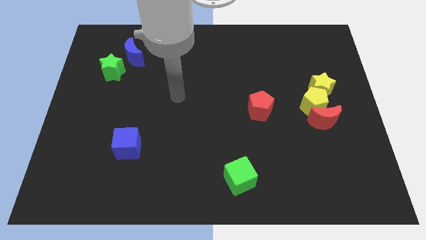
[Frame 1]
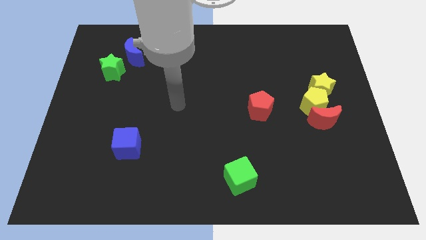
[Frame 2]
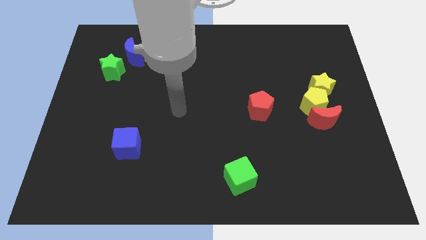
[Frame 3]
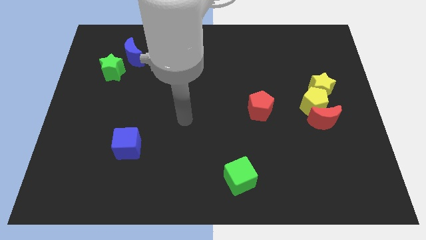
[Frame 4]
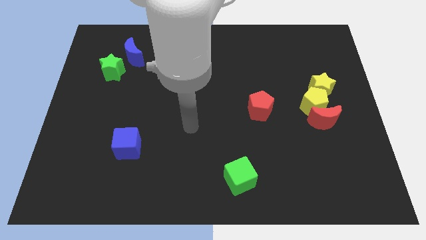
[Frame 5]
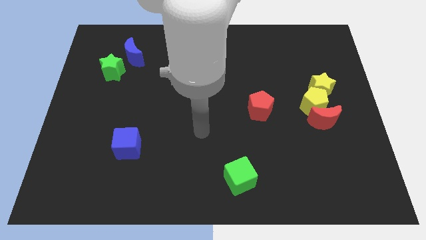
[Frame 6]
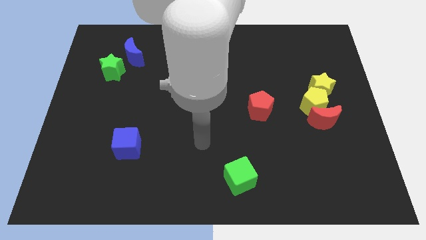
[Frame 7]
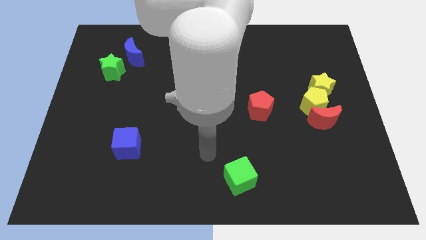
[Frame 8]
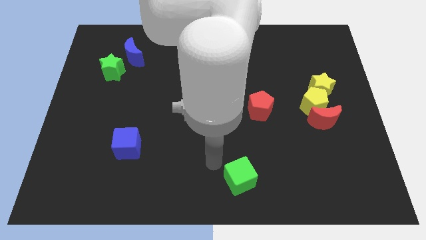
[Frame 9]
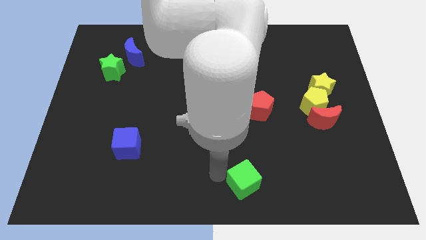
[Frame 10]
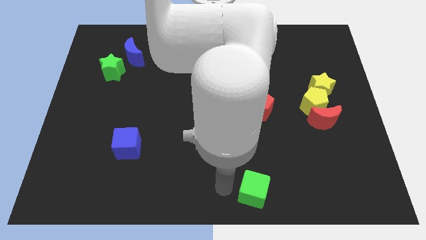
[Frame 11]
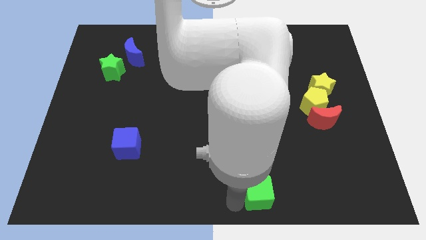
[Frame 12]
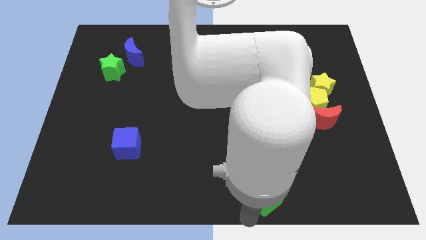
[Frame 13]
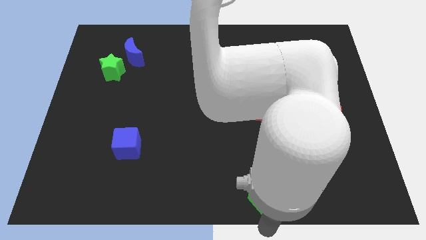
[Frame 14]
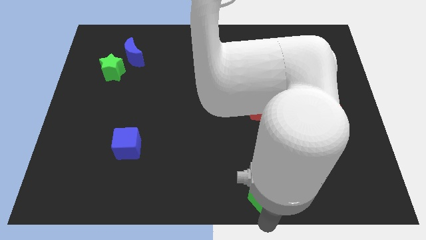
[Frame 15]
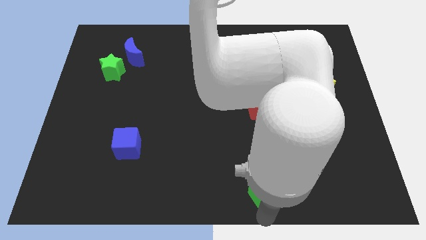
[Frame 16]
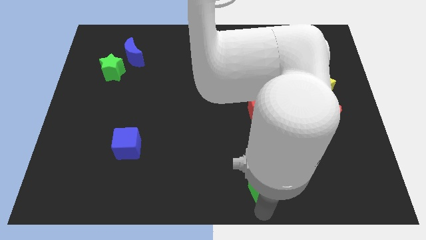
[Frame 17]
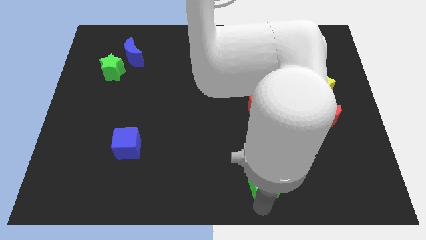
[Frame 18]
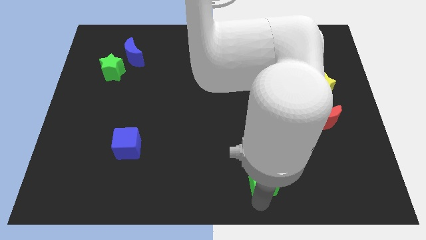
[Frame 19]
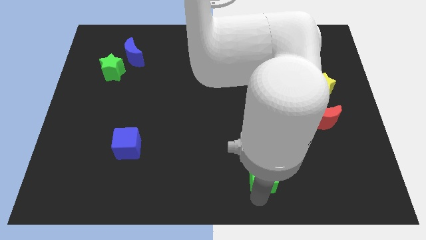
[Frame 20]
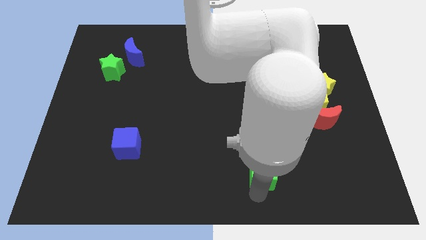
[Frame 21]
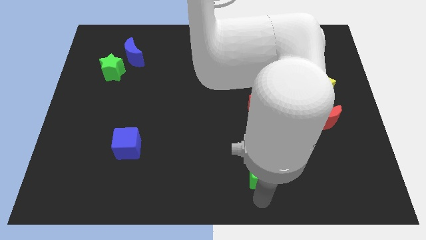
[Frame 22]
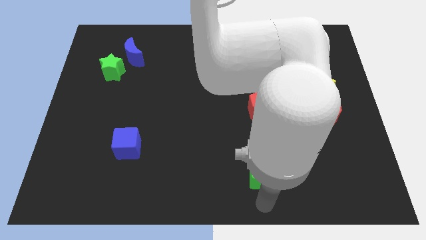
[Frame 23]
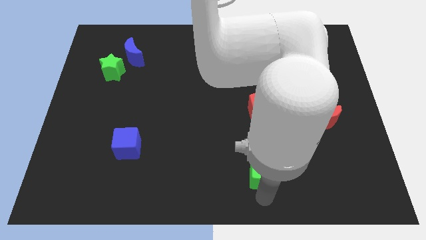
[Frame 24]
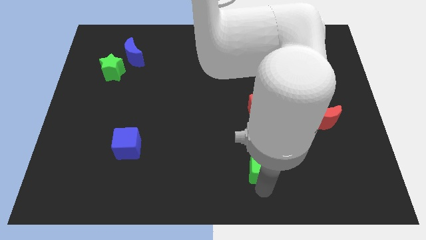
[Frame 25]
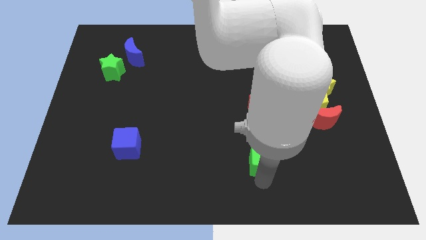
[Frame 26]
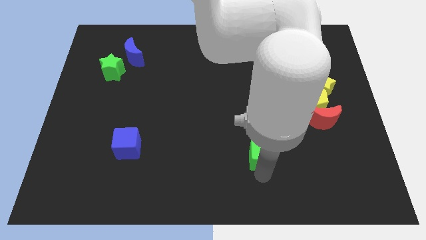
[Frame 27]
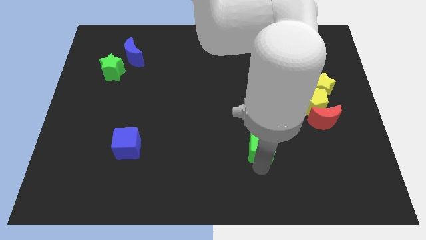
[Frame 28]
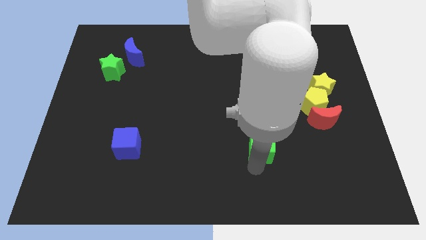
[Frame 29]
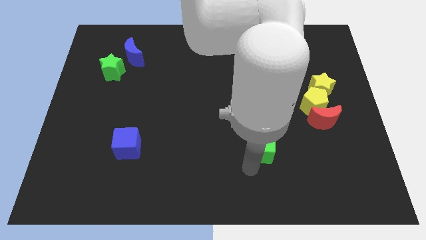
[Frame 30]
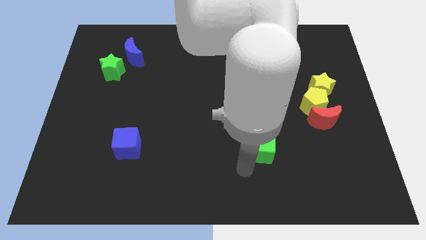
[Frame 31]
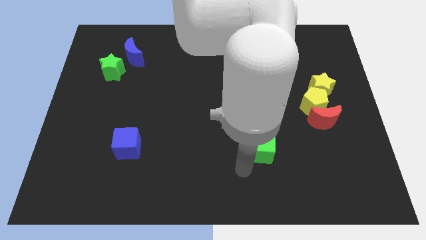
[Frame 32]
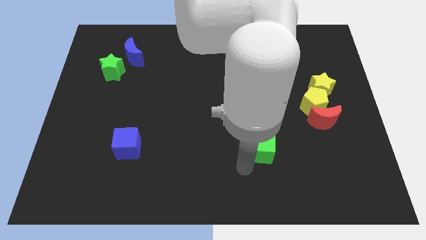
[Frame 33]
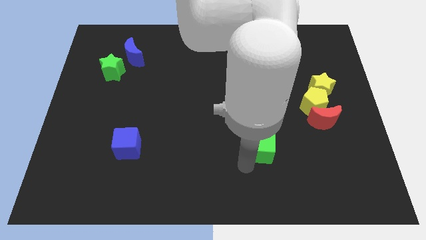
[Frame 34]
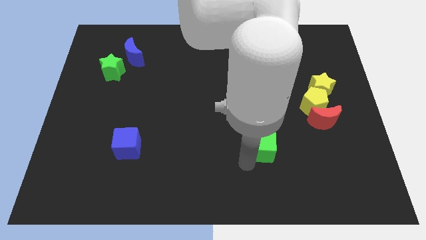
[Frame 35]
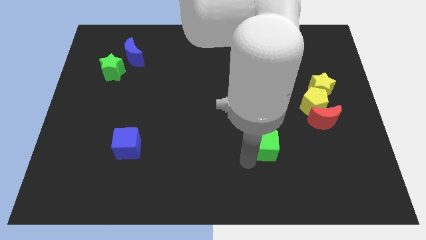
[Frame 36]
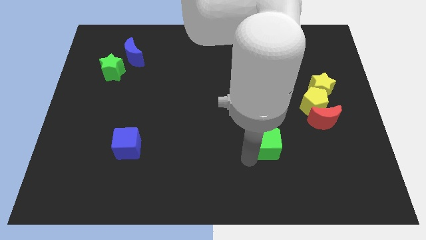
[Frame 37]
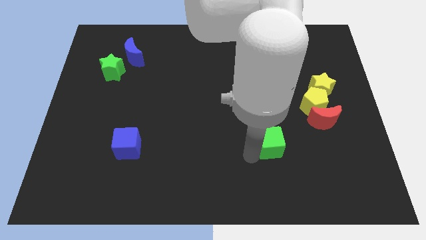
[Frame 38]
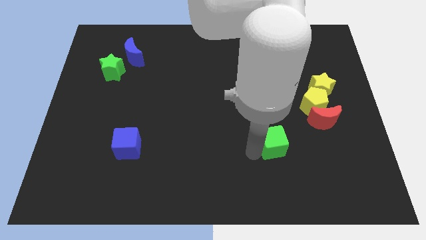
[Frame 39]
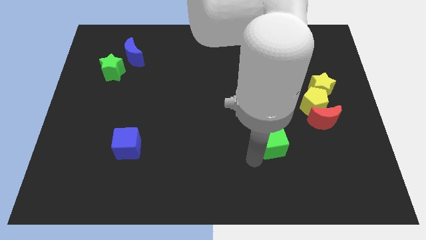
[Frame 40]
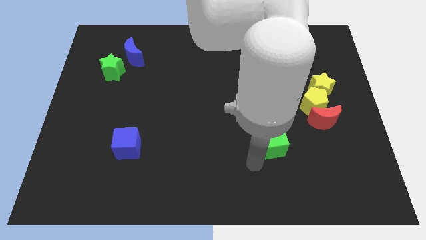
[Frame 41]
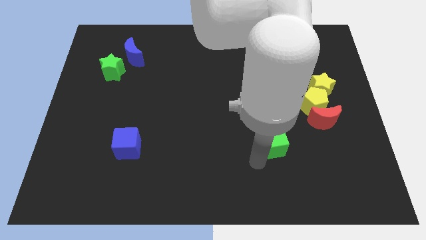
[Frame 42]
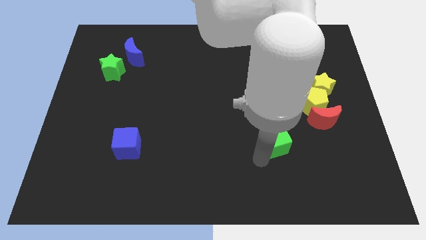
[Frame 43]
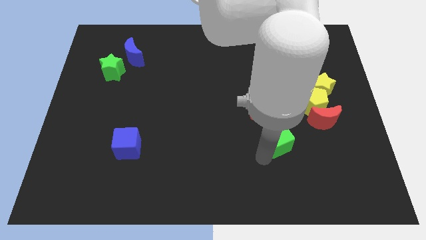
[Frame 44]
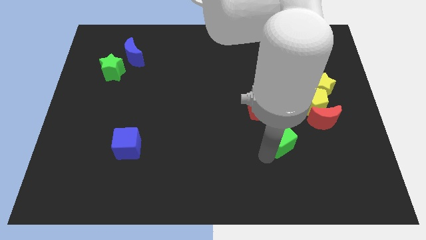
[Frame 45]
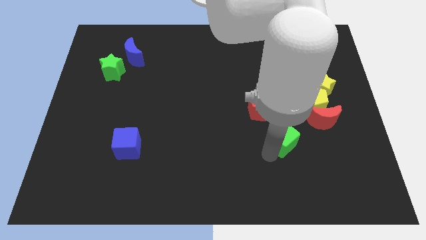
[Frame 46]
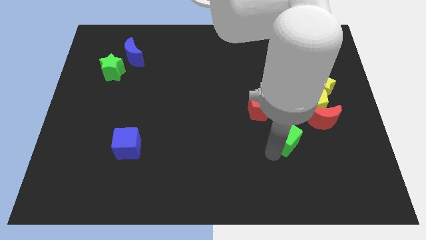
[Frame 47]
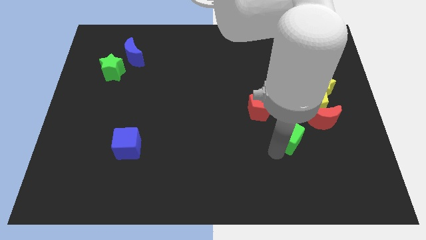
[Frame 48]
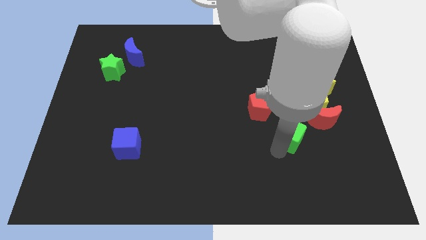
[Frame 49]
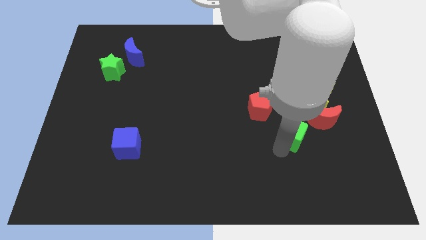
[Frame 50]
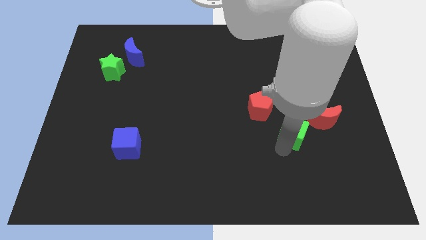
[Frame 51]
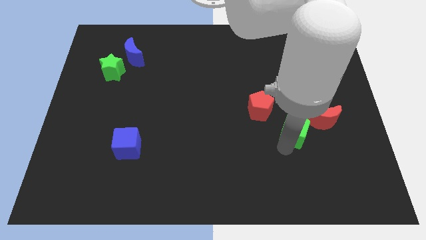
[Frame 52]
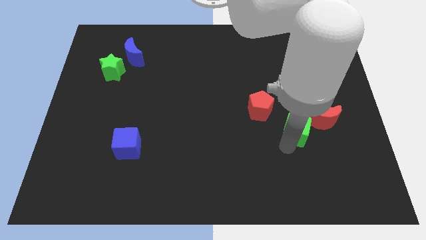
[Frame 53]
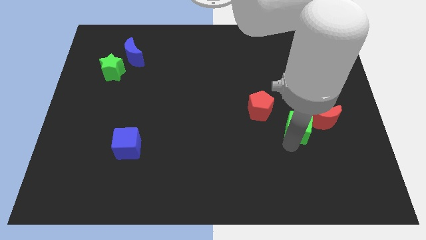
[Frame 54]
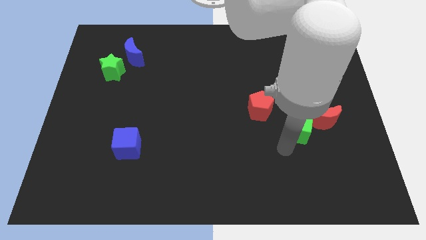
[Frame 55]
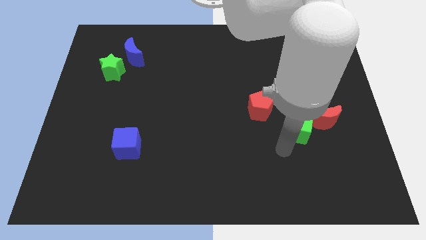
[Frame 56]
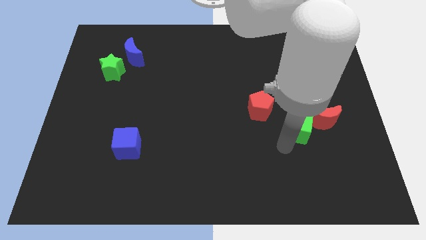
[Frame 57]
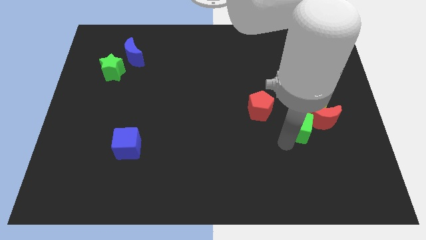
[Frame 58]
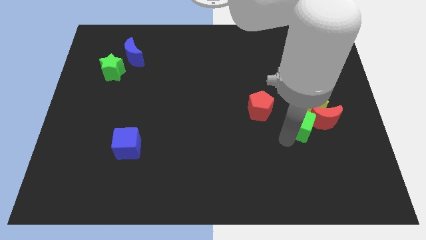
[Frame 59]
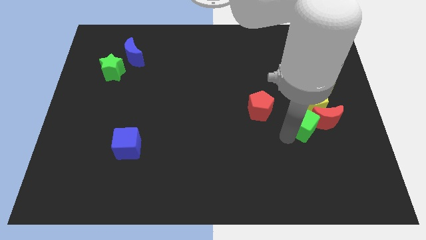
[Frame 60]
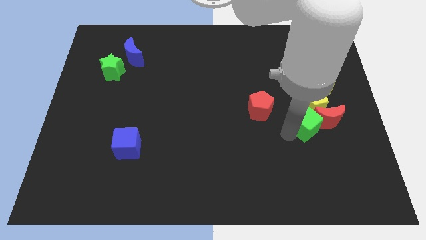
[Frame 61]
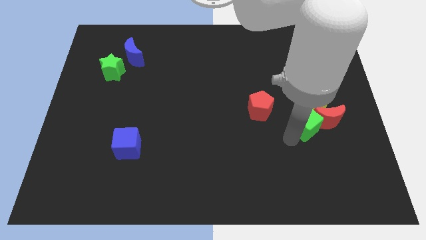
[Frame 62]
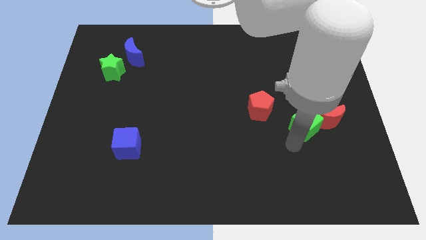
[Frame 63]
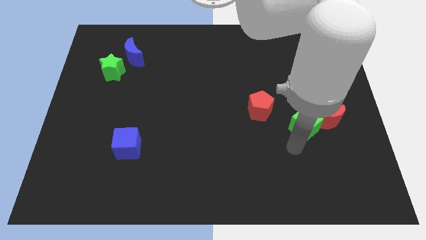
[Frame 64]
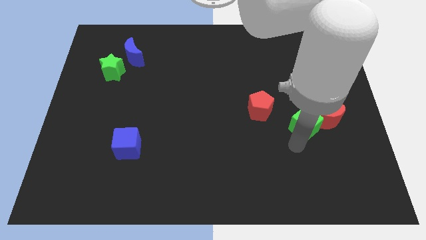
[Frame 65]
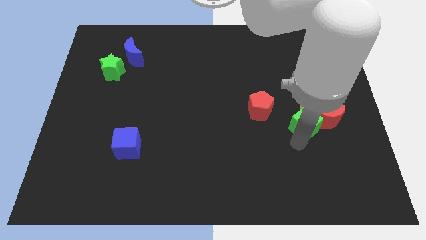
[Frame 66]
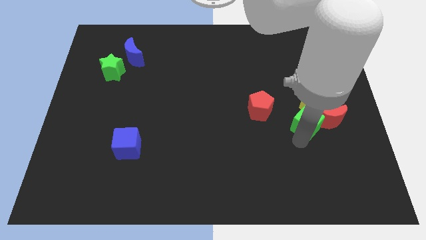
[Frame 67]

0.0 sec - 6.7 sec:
move the green cube close to the yellow pentagon

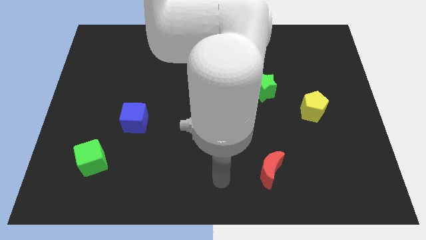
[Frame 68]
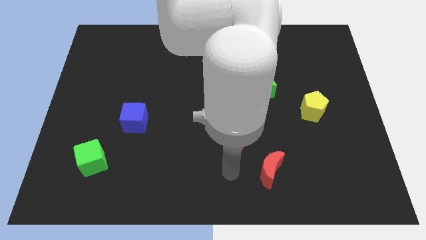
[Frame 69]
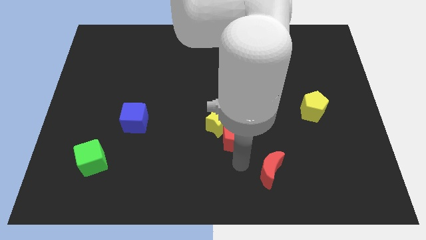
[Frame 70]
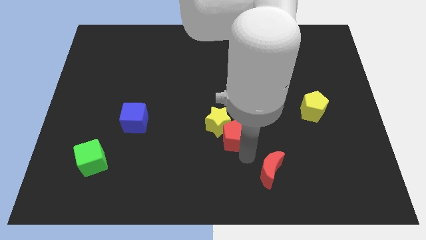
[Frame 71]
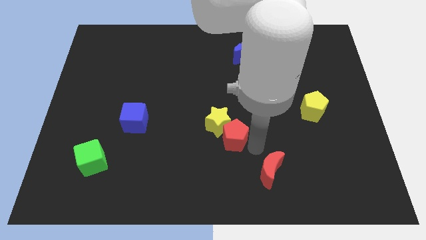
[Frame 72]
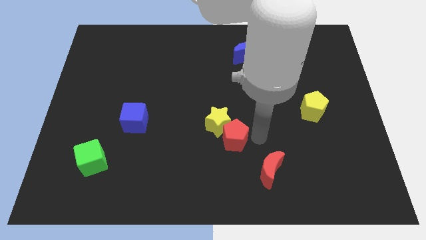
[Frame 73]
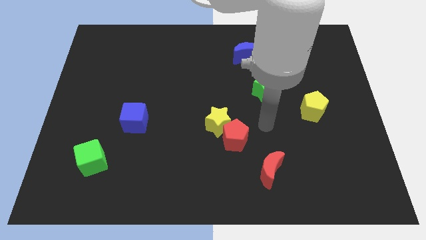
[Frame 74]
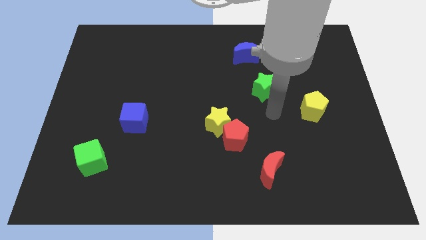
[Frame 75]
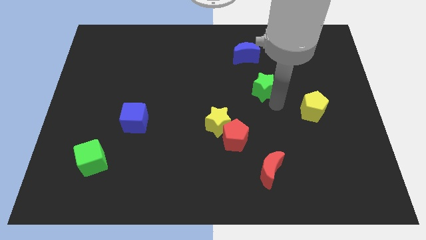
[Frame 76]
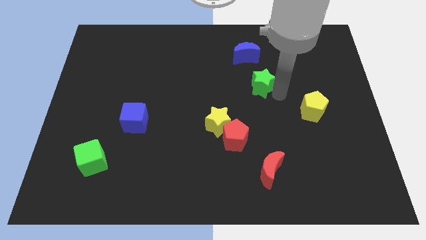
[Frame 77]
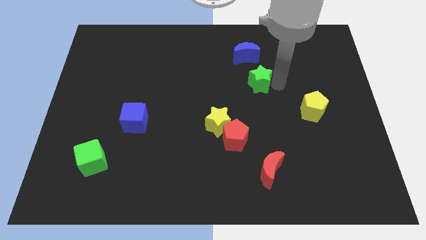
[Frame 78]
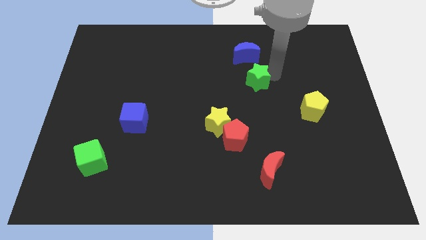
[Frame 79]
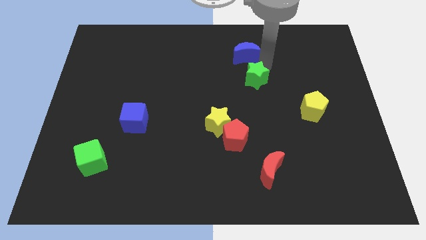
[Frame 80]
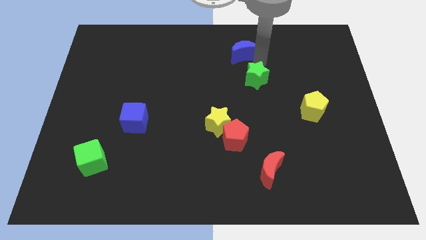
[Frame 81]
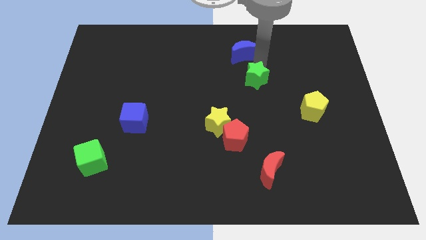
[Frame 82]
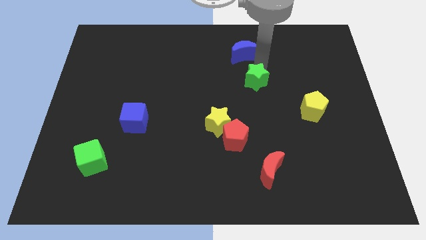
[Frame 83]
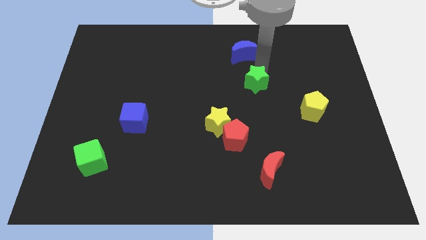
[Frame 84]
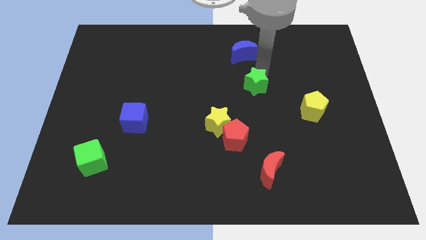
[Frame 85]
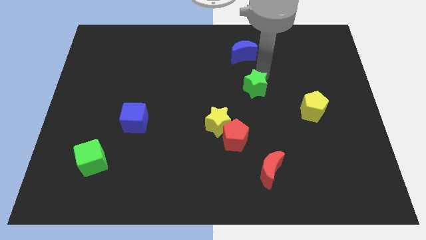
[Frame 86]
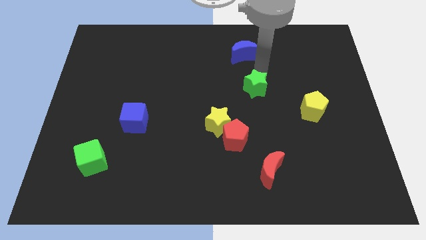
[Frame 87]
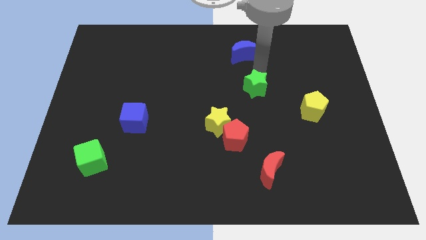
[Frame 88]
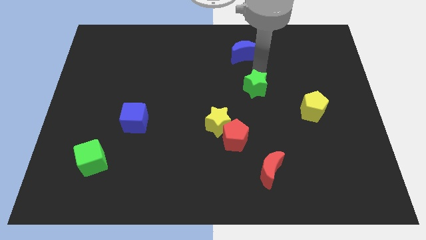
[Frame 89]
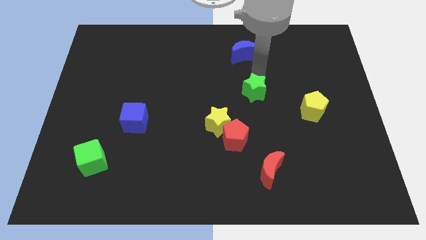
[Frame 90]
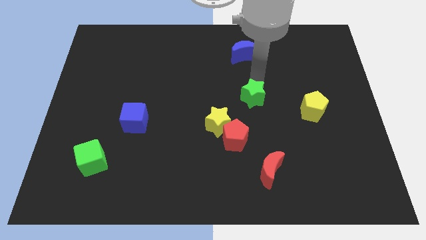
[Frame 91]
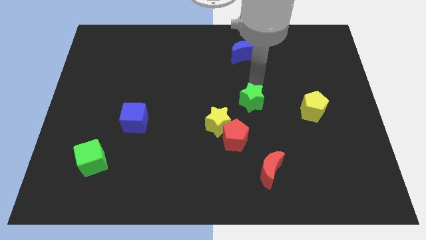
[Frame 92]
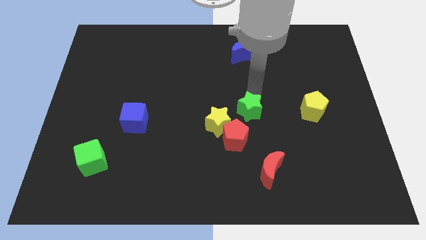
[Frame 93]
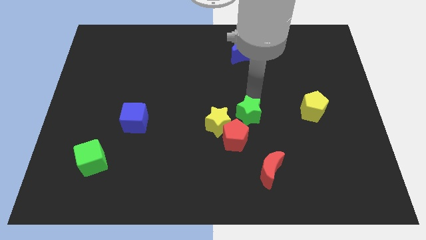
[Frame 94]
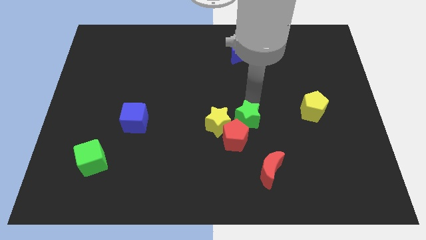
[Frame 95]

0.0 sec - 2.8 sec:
move the green star to the red pentagon
